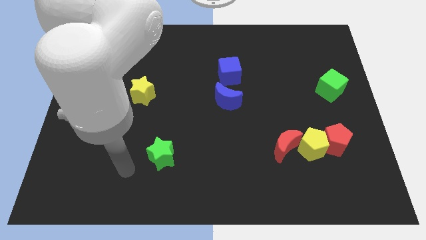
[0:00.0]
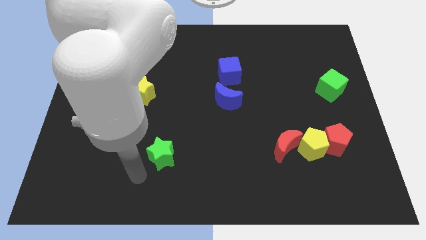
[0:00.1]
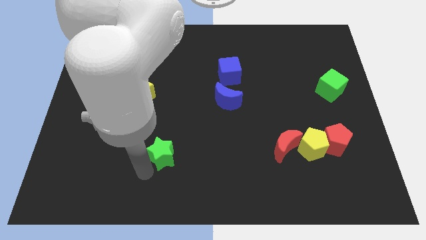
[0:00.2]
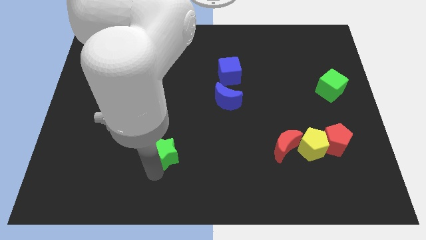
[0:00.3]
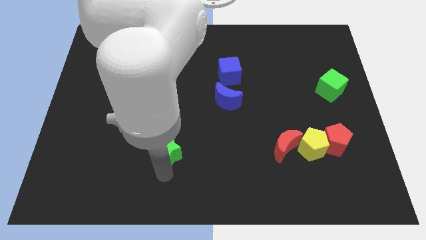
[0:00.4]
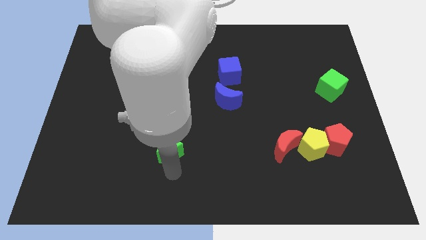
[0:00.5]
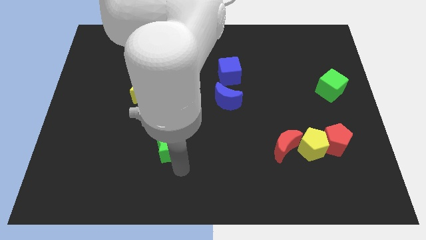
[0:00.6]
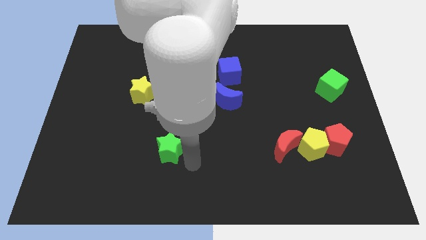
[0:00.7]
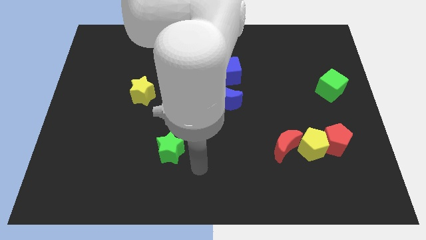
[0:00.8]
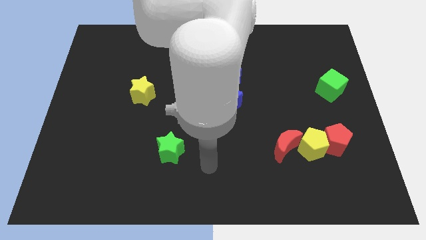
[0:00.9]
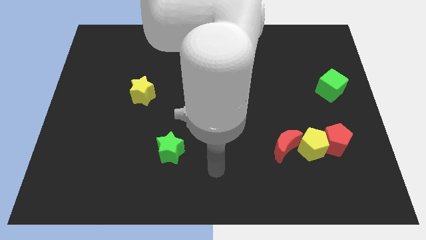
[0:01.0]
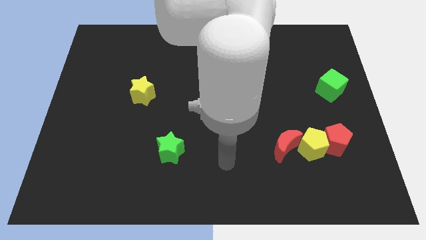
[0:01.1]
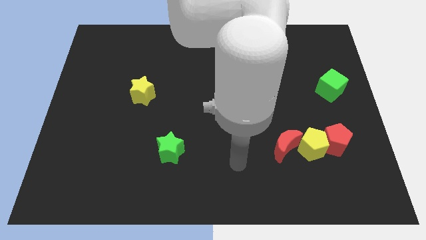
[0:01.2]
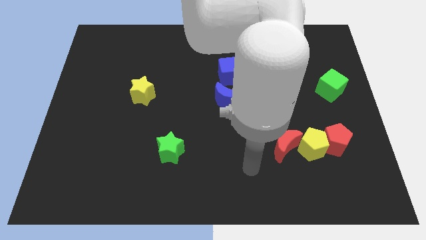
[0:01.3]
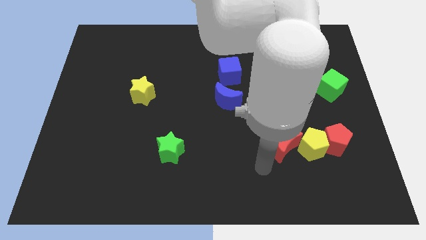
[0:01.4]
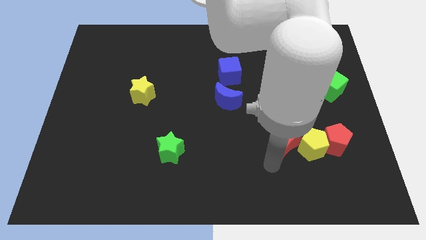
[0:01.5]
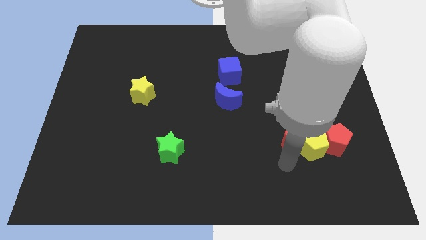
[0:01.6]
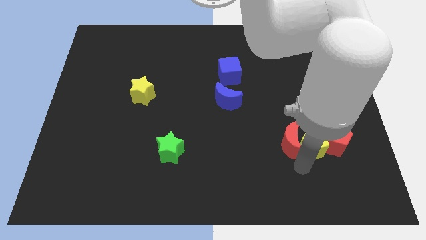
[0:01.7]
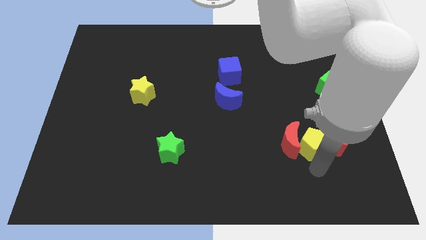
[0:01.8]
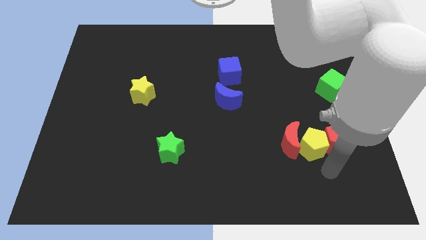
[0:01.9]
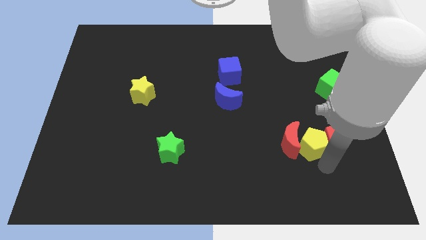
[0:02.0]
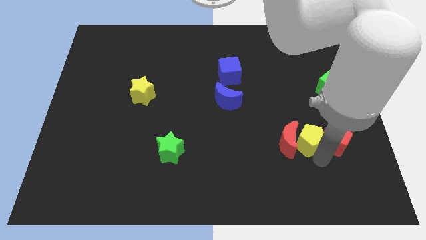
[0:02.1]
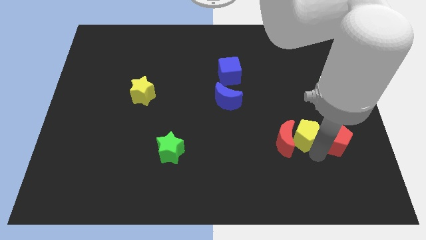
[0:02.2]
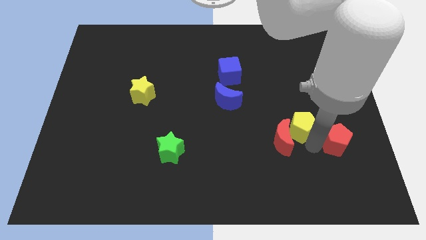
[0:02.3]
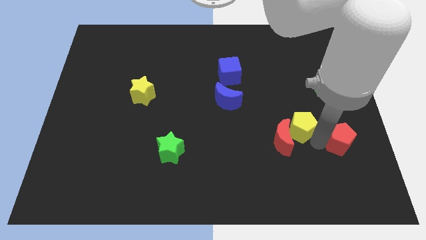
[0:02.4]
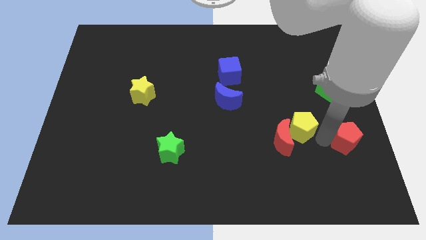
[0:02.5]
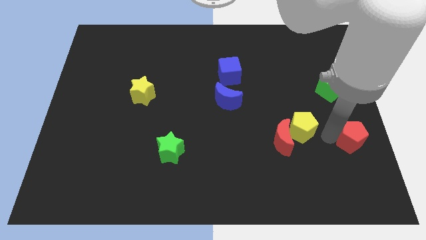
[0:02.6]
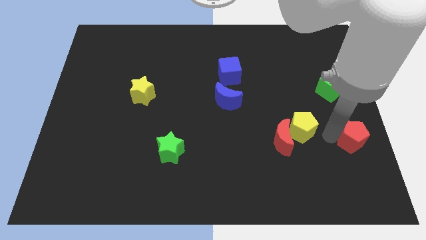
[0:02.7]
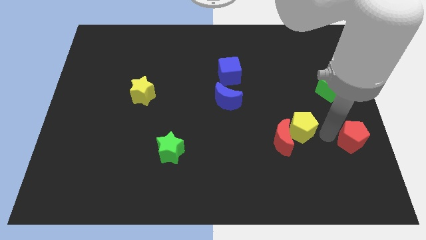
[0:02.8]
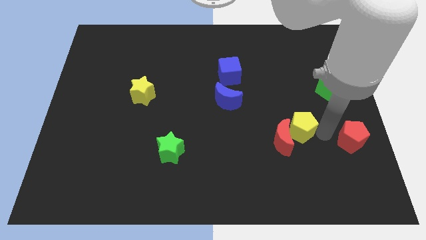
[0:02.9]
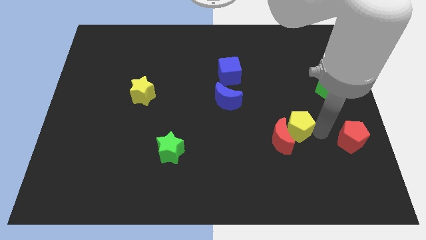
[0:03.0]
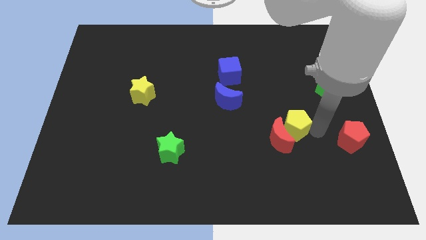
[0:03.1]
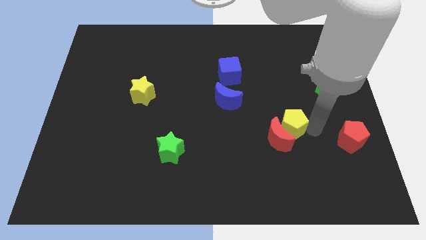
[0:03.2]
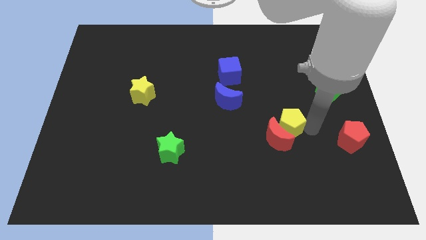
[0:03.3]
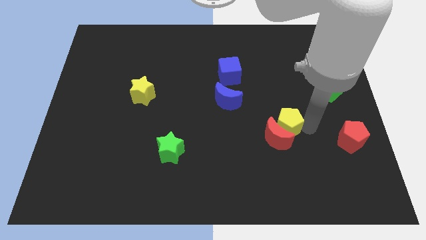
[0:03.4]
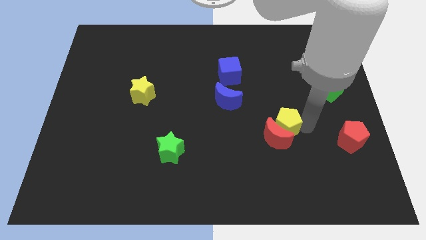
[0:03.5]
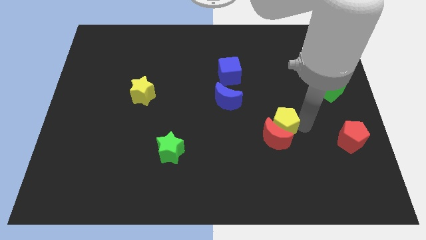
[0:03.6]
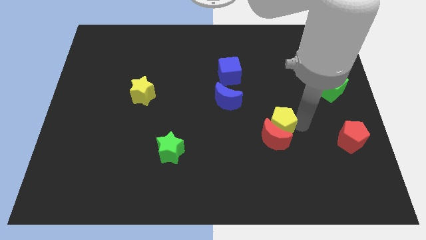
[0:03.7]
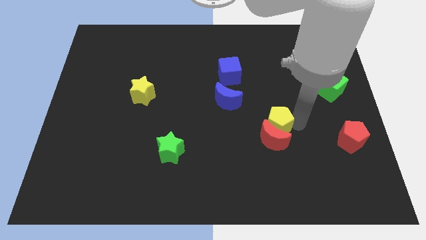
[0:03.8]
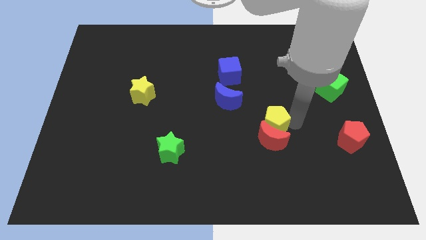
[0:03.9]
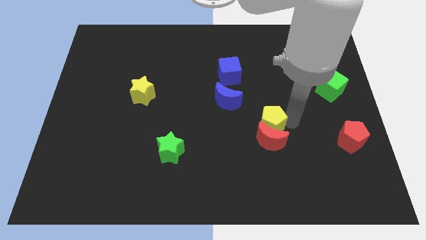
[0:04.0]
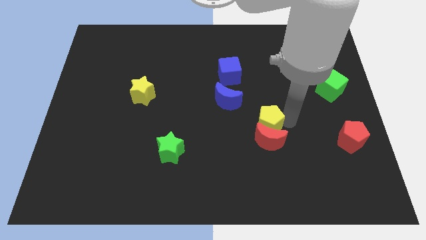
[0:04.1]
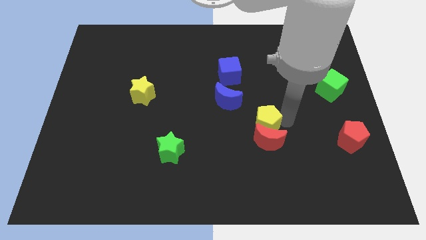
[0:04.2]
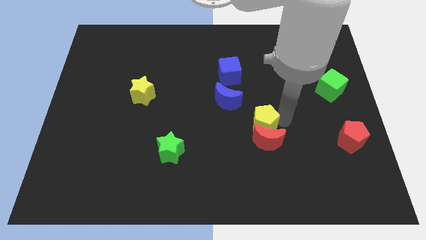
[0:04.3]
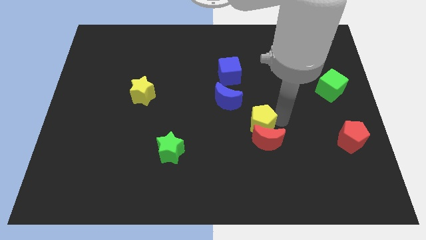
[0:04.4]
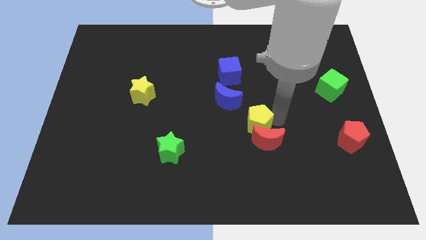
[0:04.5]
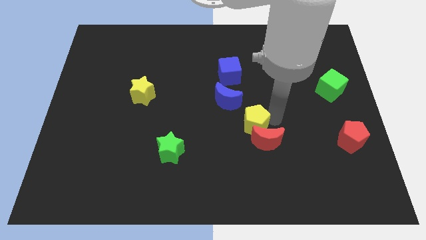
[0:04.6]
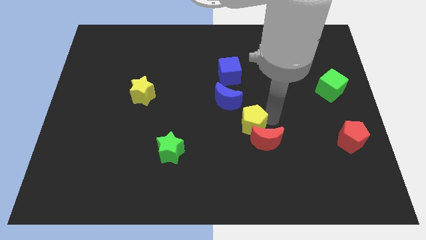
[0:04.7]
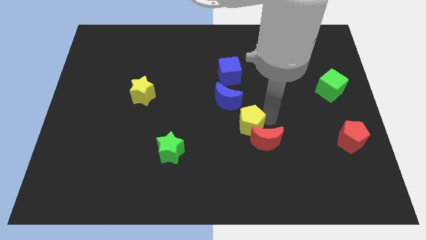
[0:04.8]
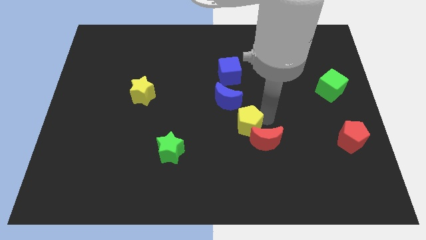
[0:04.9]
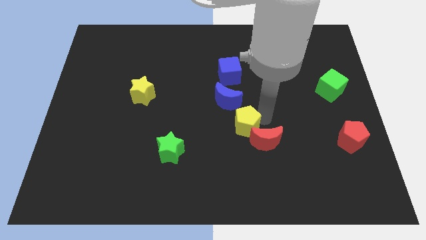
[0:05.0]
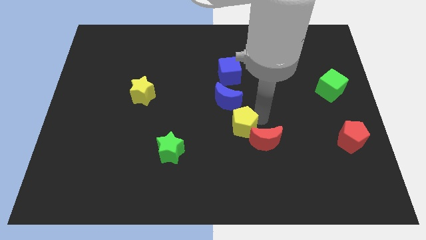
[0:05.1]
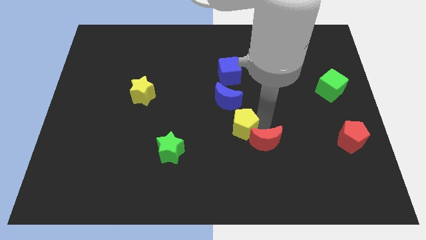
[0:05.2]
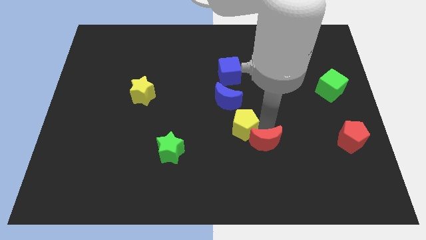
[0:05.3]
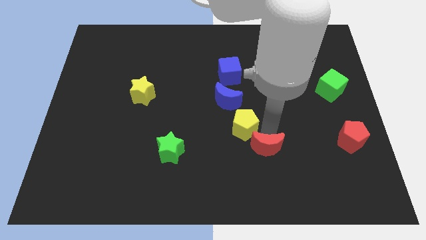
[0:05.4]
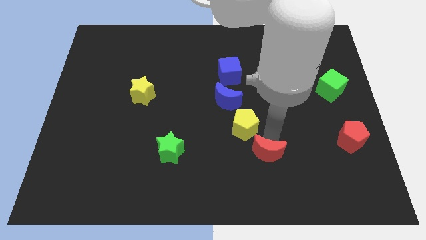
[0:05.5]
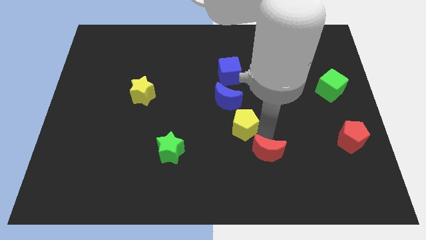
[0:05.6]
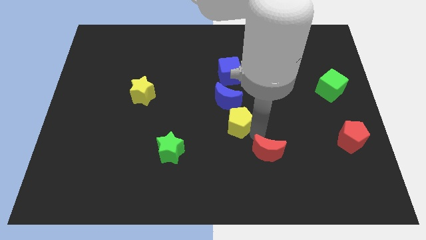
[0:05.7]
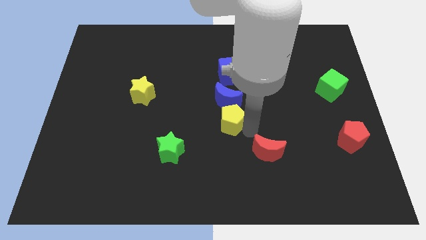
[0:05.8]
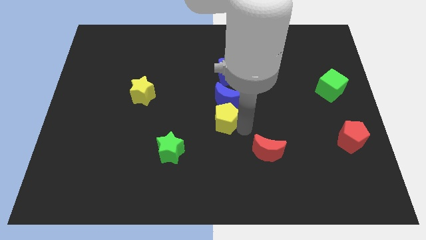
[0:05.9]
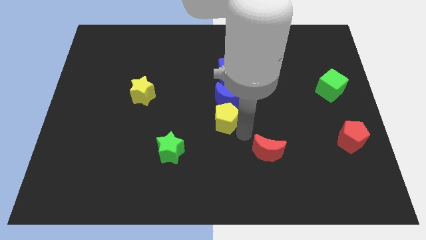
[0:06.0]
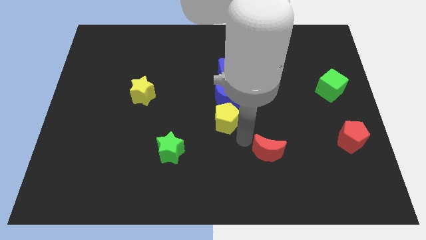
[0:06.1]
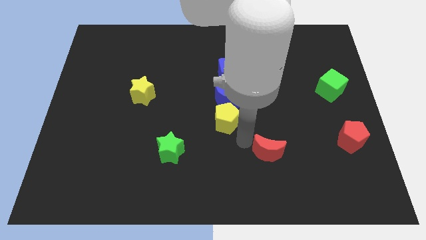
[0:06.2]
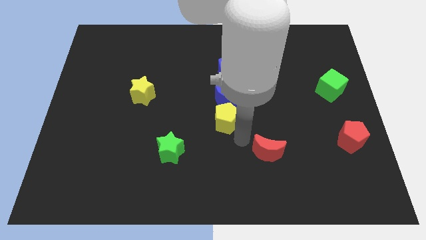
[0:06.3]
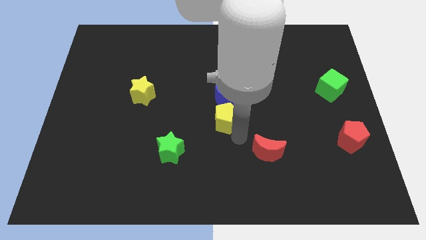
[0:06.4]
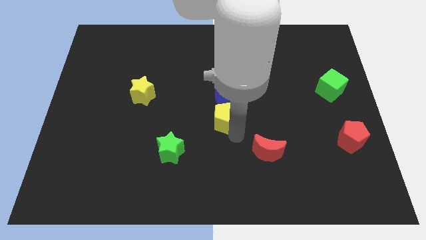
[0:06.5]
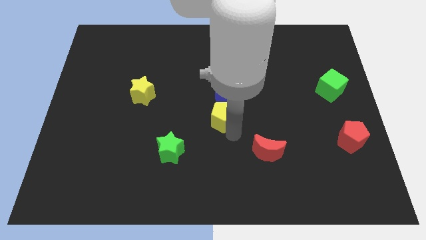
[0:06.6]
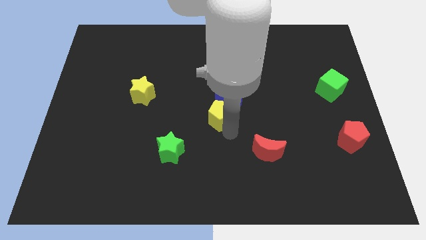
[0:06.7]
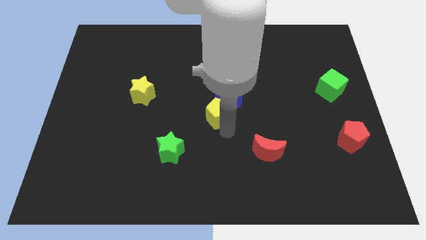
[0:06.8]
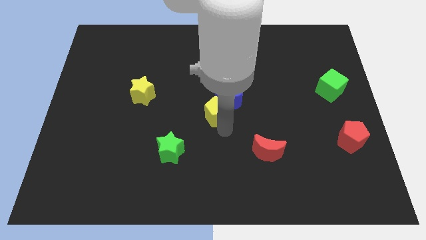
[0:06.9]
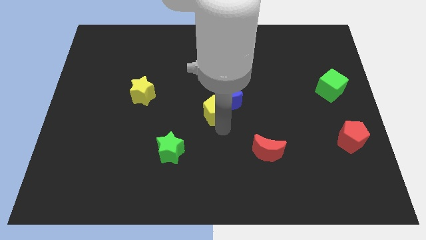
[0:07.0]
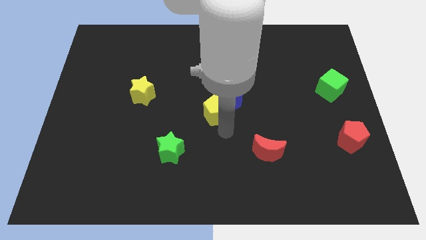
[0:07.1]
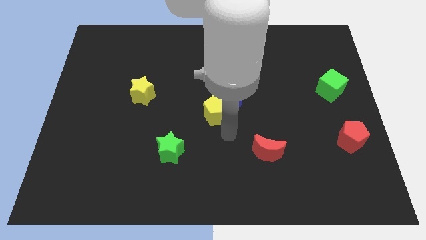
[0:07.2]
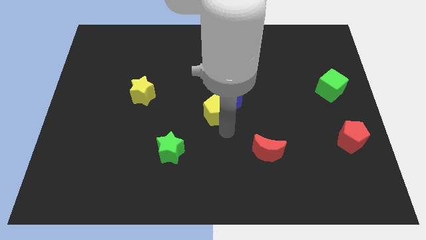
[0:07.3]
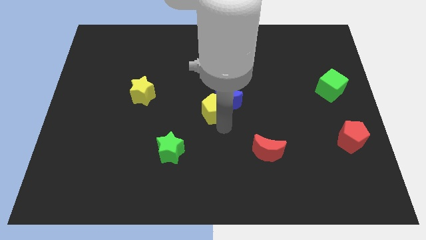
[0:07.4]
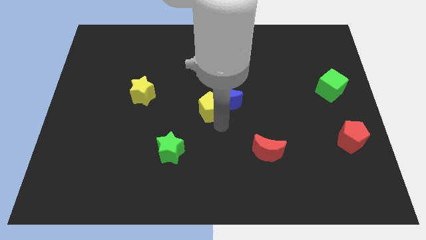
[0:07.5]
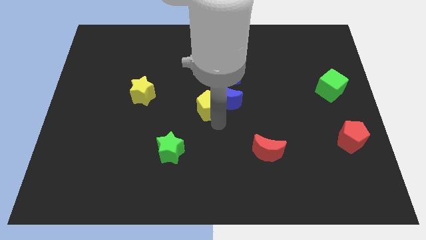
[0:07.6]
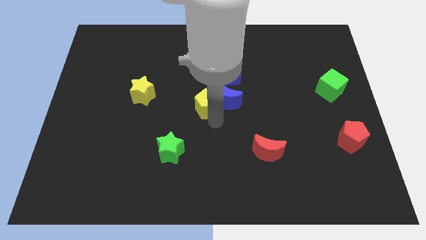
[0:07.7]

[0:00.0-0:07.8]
slide the yellow pentagon diagonally down and to the left of the blue cube
